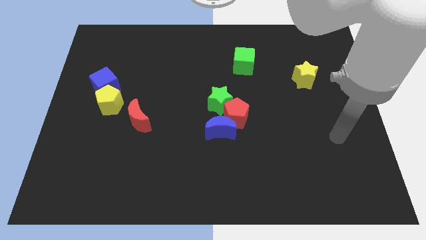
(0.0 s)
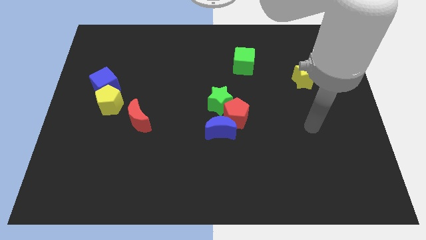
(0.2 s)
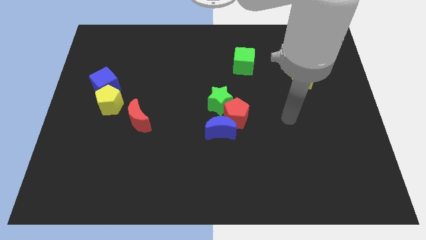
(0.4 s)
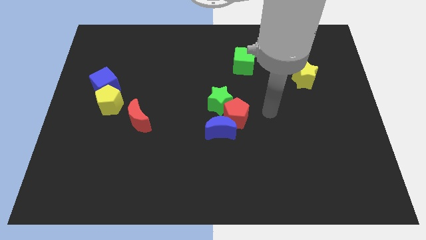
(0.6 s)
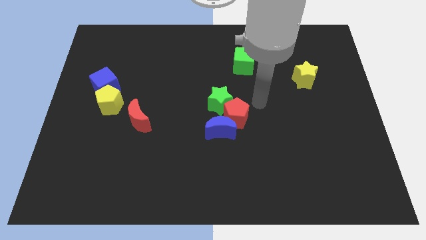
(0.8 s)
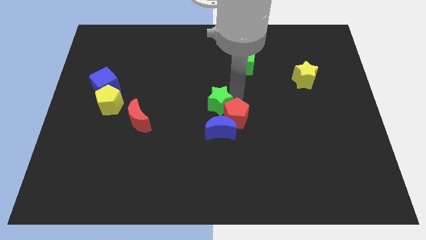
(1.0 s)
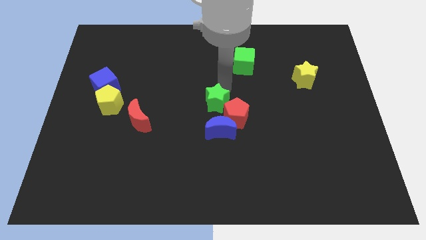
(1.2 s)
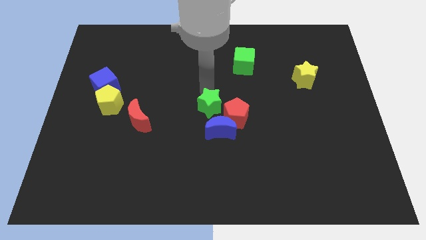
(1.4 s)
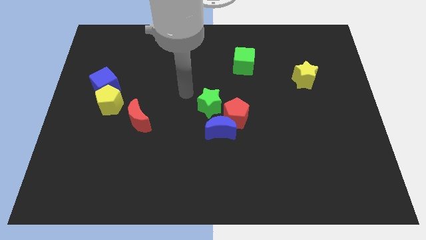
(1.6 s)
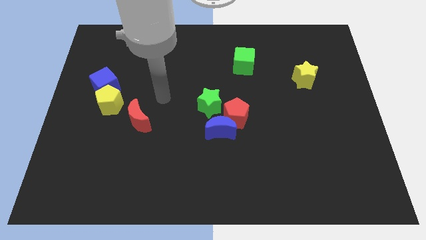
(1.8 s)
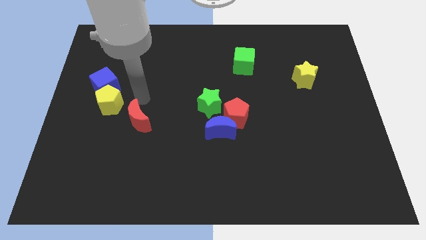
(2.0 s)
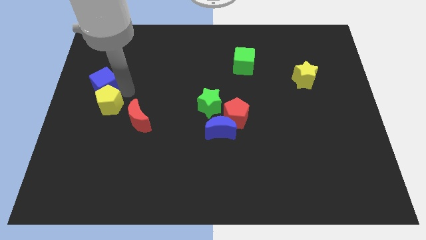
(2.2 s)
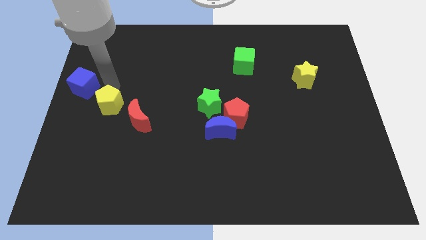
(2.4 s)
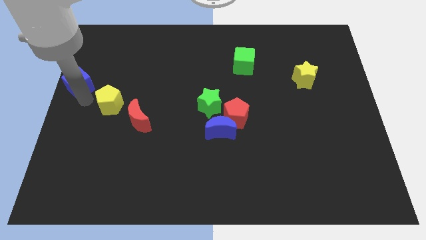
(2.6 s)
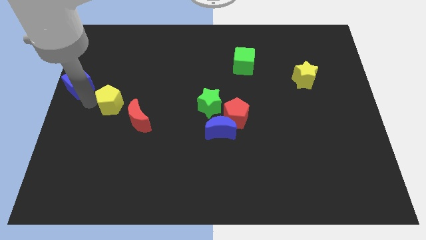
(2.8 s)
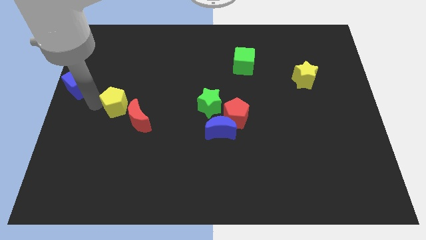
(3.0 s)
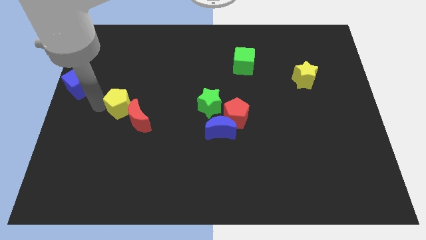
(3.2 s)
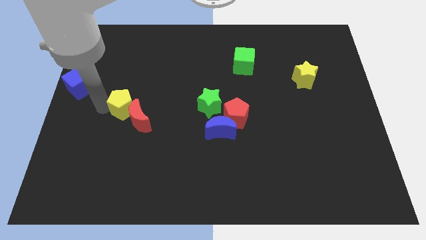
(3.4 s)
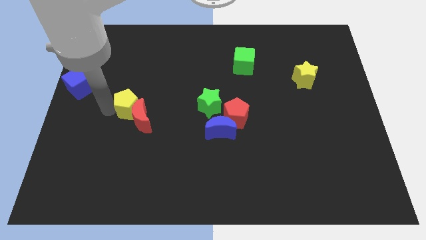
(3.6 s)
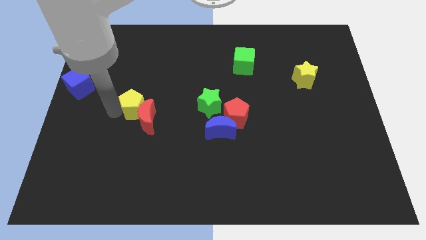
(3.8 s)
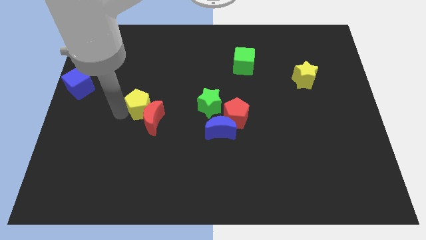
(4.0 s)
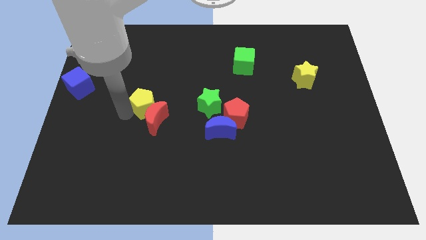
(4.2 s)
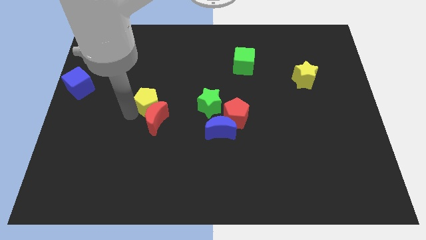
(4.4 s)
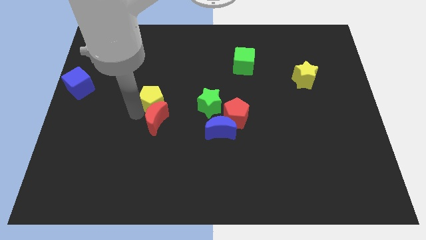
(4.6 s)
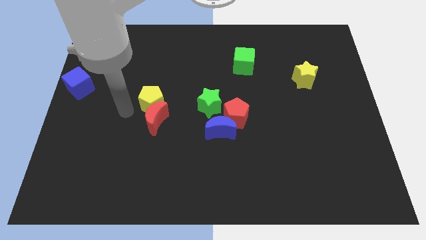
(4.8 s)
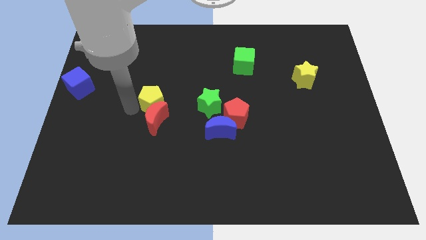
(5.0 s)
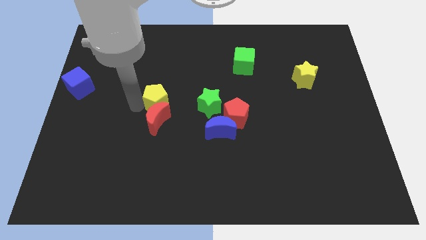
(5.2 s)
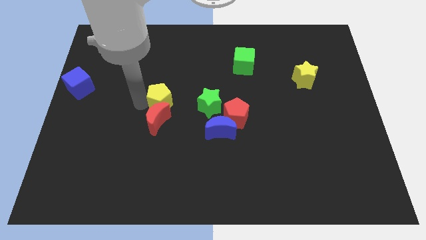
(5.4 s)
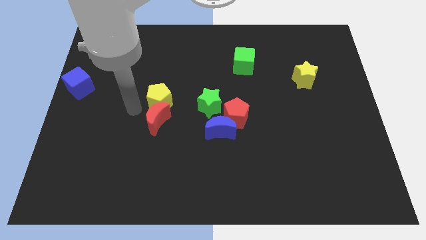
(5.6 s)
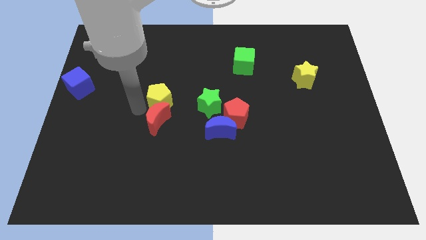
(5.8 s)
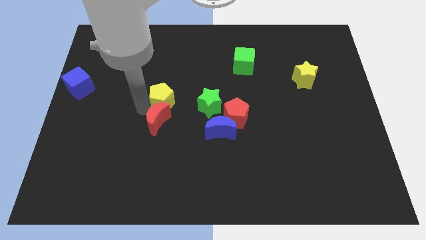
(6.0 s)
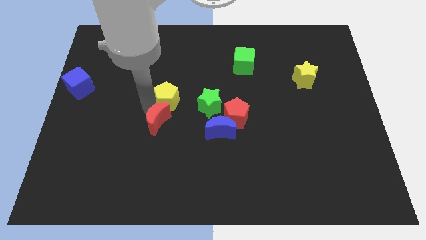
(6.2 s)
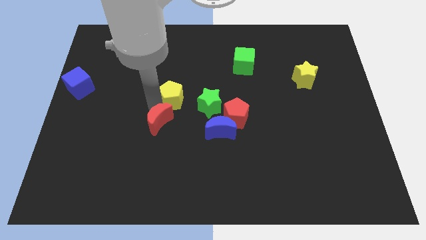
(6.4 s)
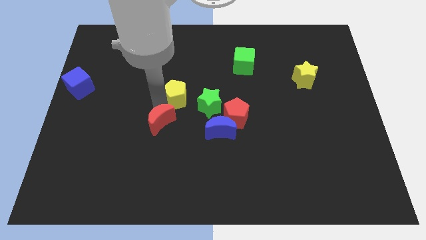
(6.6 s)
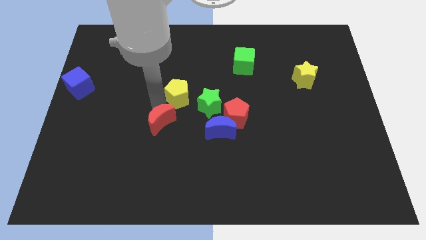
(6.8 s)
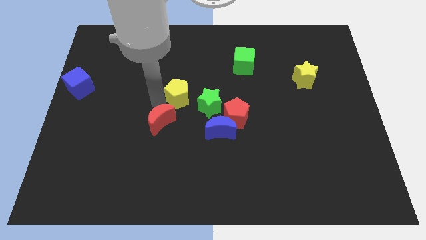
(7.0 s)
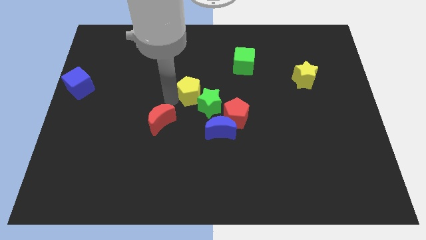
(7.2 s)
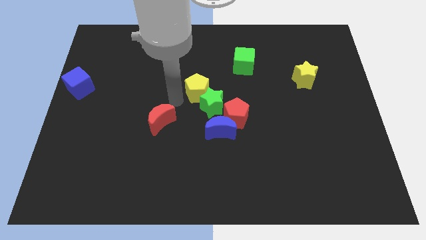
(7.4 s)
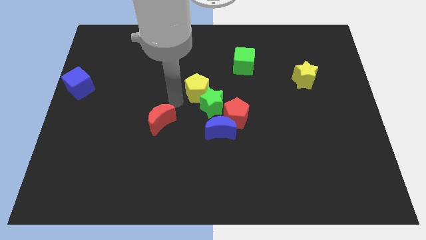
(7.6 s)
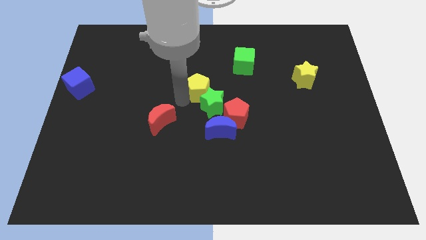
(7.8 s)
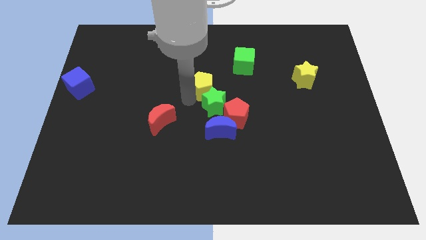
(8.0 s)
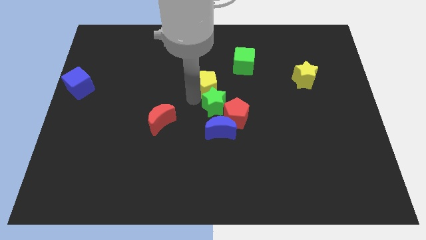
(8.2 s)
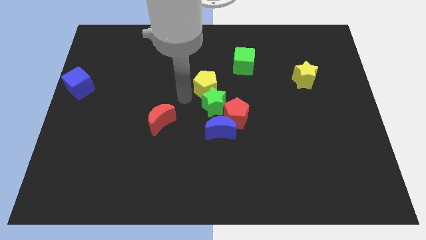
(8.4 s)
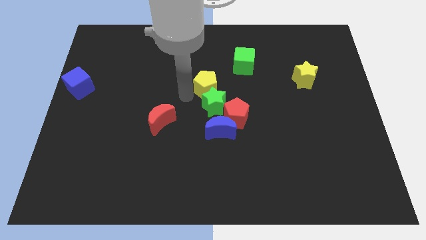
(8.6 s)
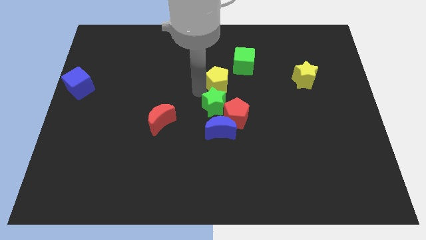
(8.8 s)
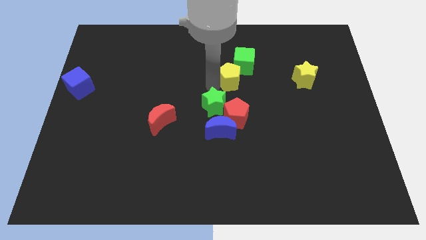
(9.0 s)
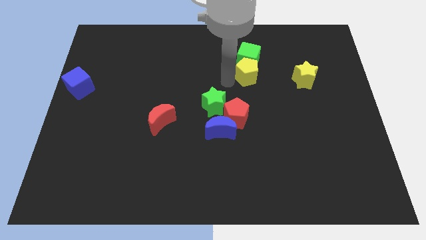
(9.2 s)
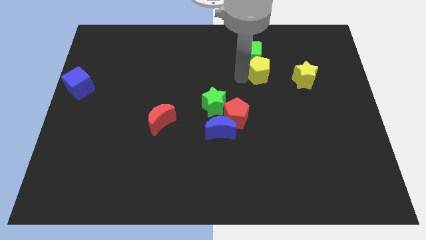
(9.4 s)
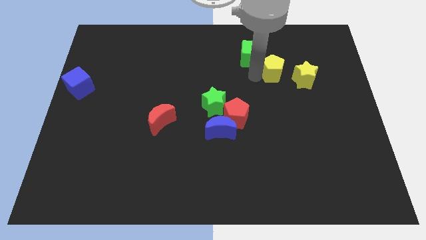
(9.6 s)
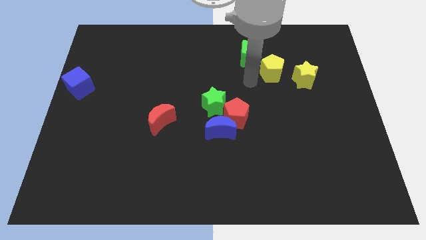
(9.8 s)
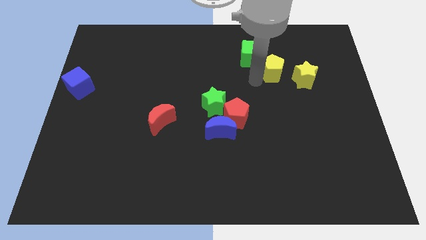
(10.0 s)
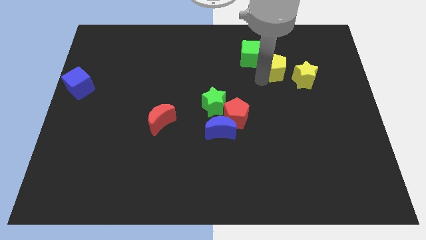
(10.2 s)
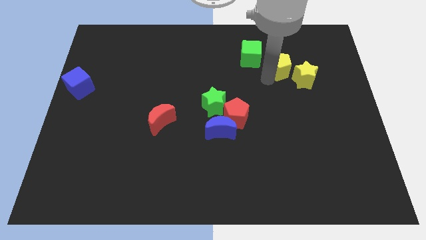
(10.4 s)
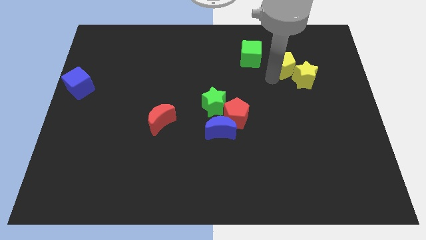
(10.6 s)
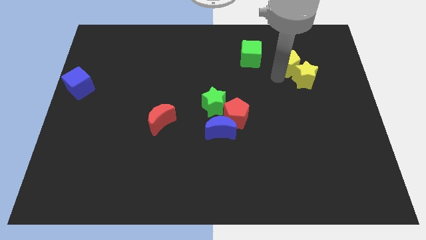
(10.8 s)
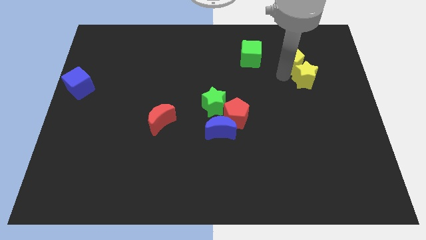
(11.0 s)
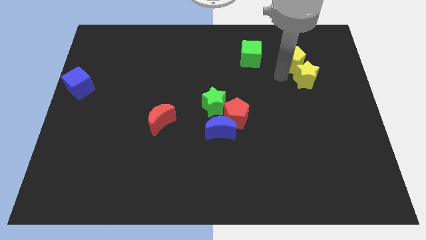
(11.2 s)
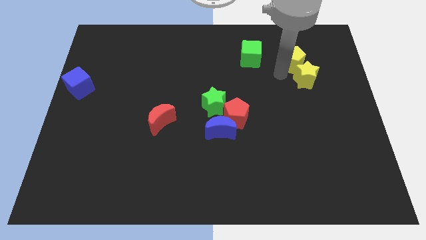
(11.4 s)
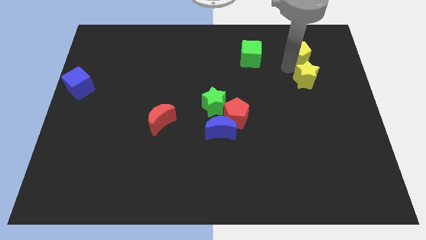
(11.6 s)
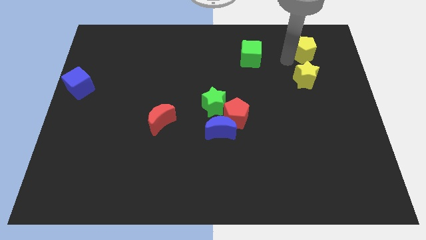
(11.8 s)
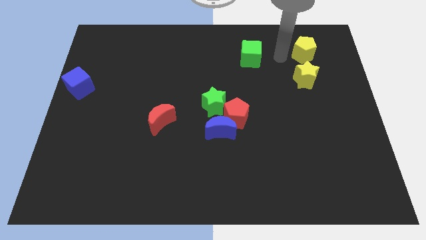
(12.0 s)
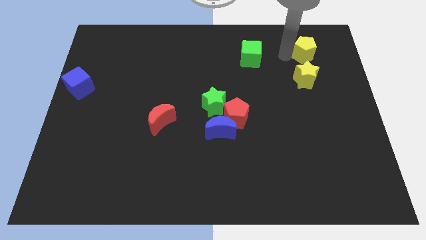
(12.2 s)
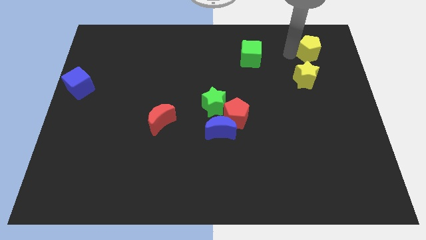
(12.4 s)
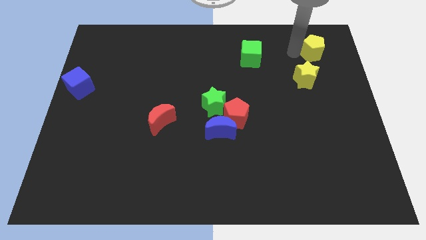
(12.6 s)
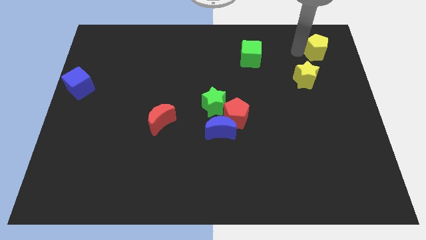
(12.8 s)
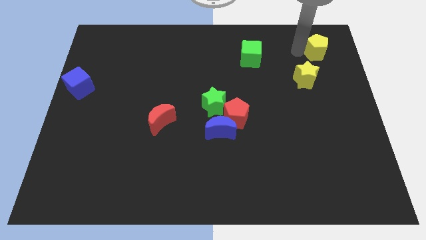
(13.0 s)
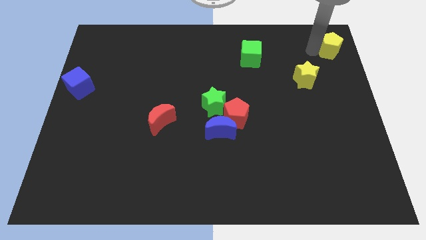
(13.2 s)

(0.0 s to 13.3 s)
move the yellow pentagon to the top right of the board
